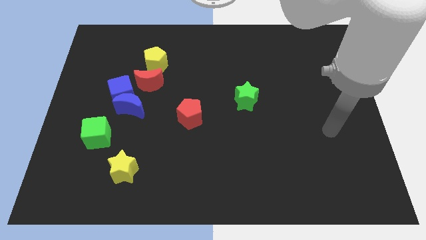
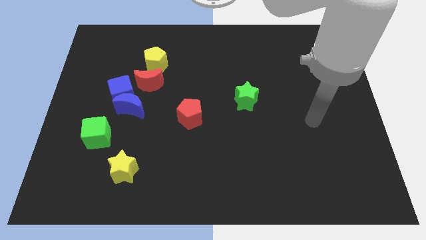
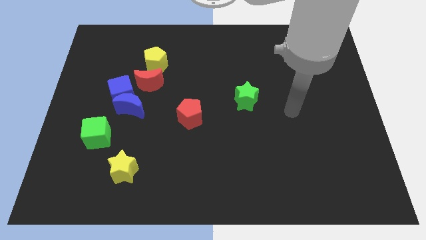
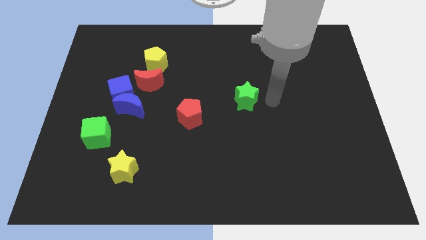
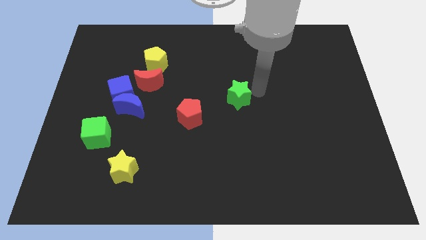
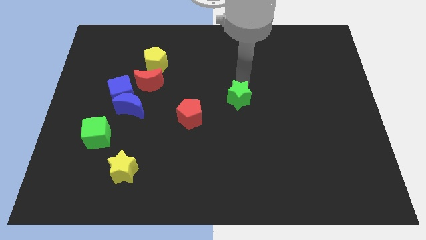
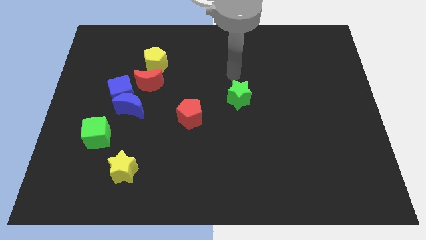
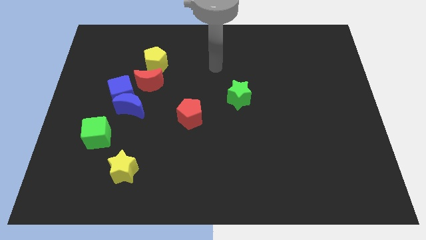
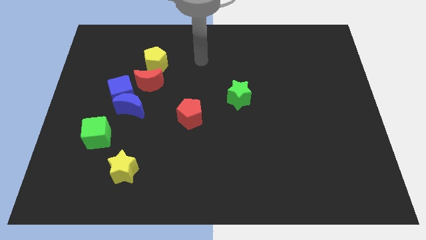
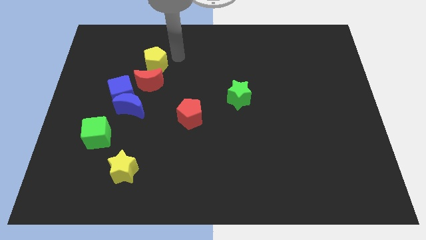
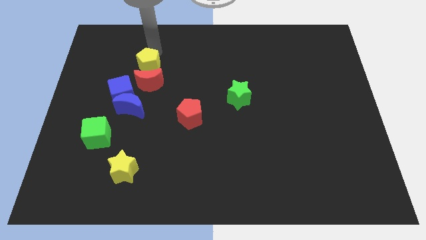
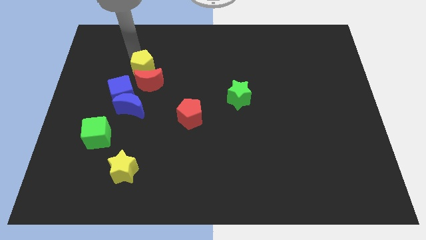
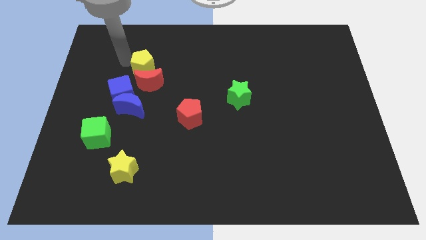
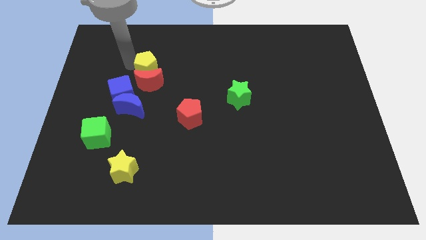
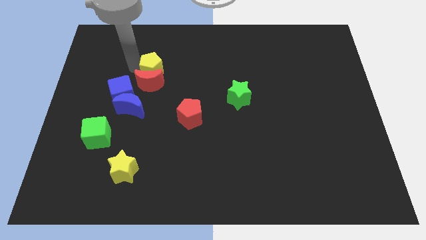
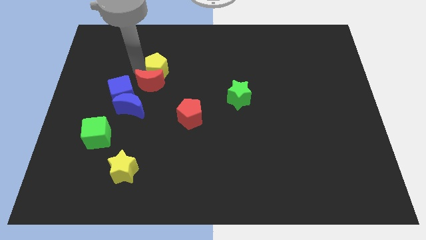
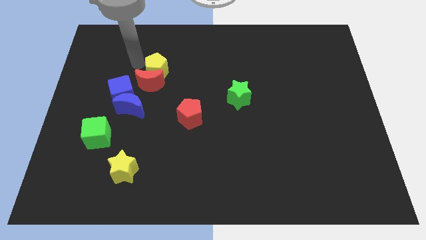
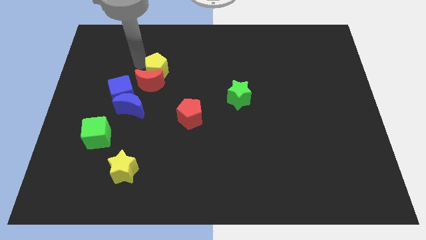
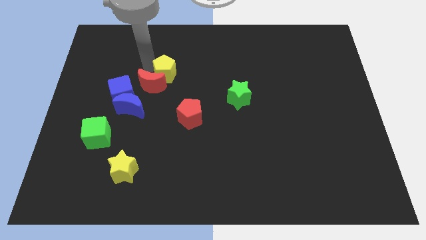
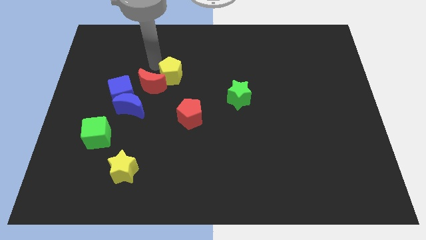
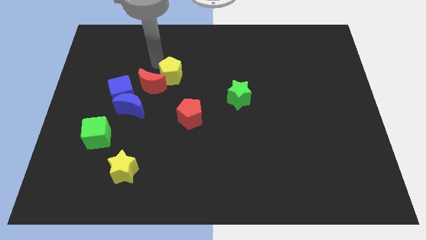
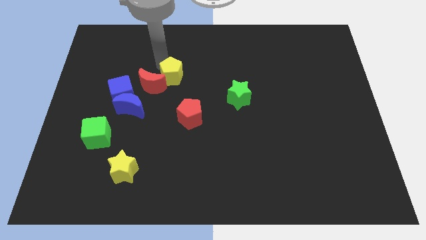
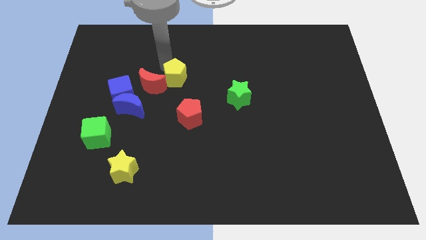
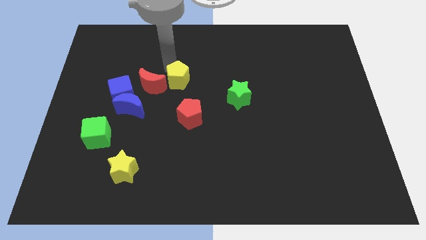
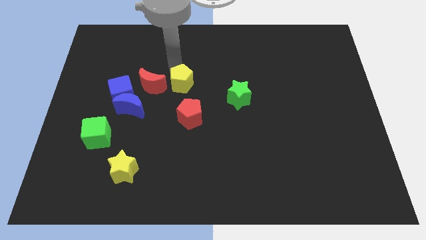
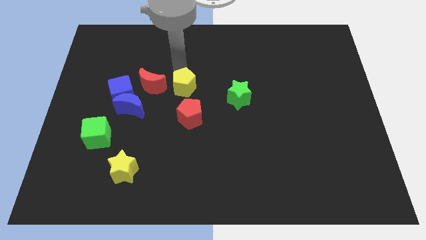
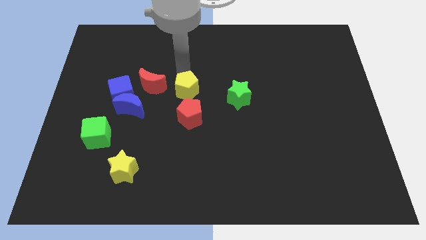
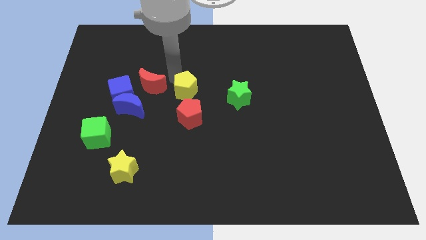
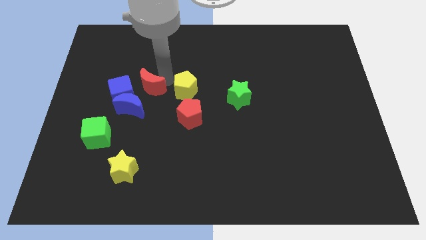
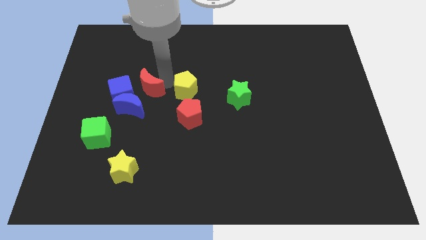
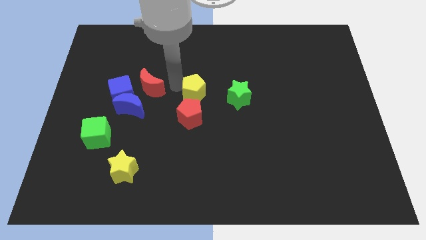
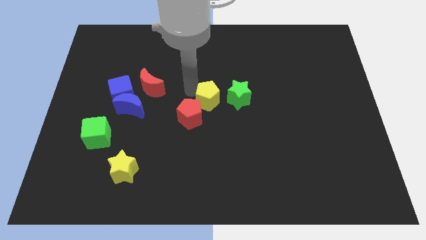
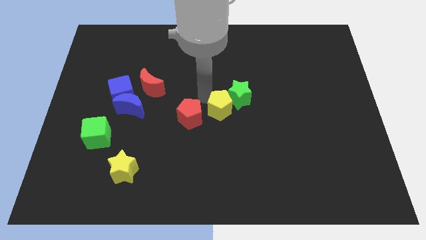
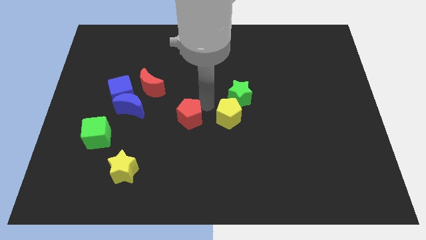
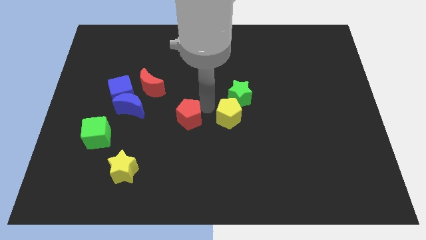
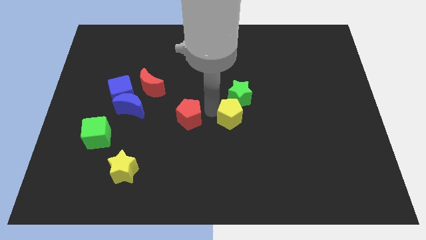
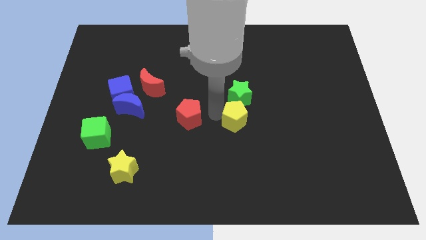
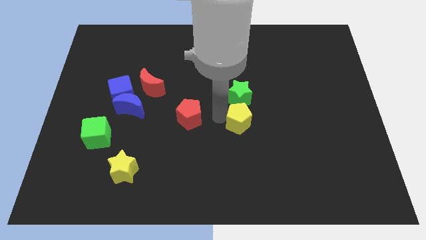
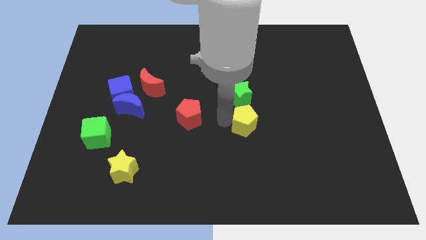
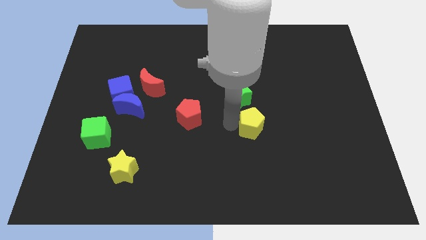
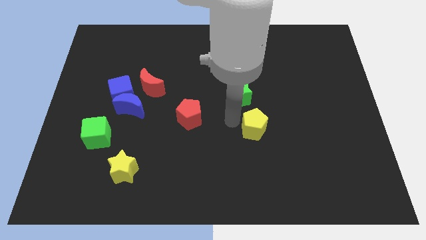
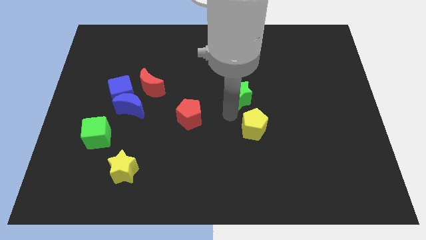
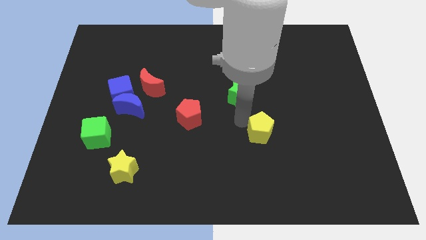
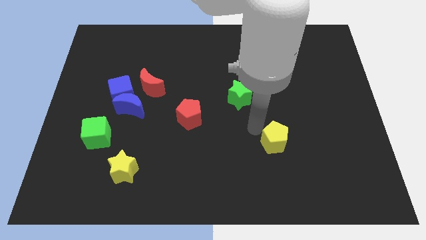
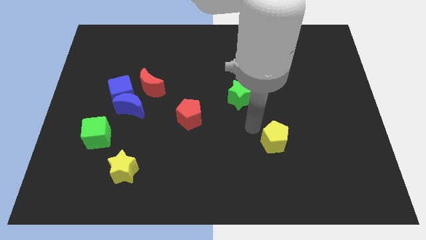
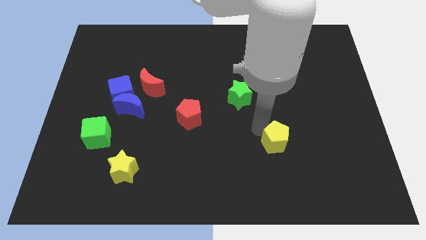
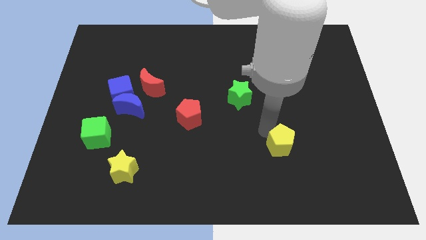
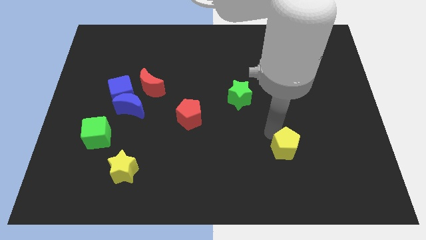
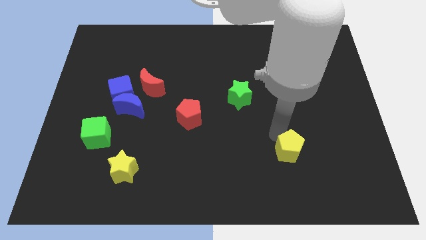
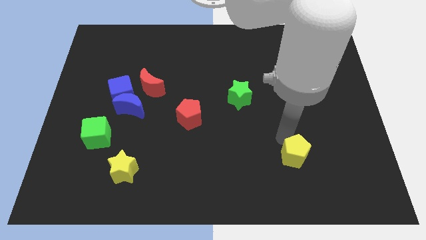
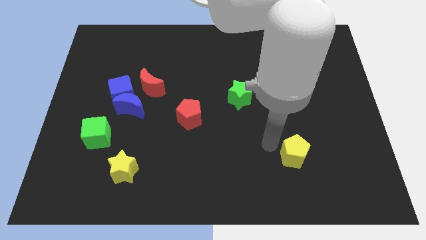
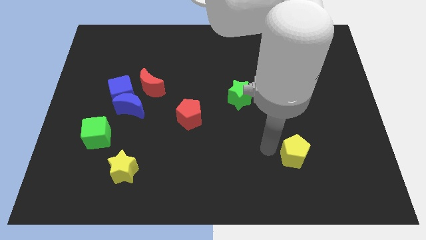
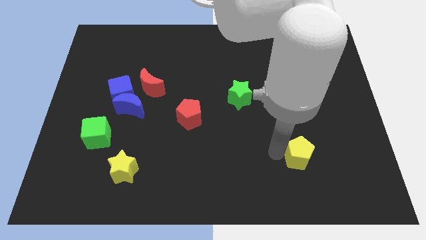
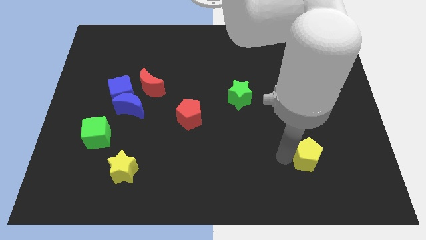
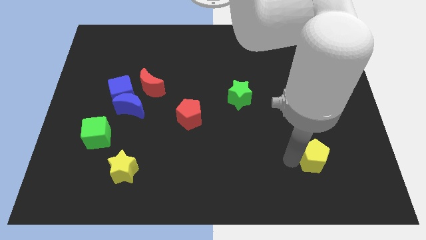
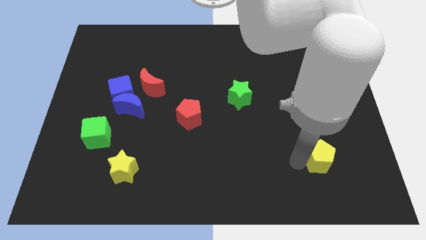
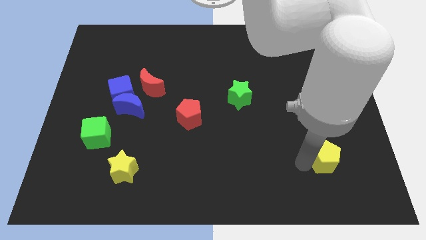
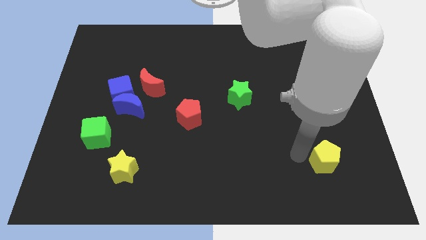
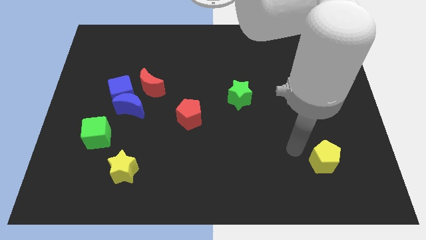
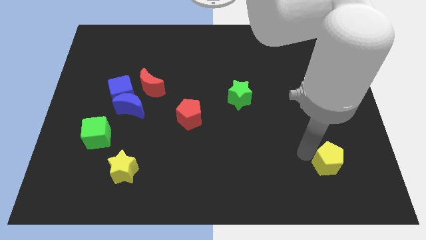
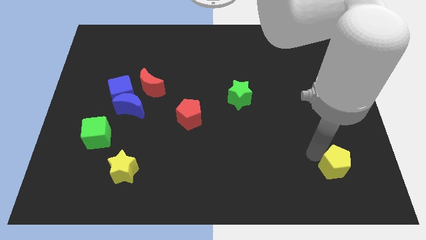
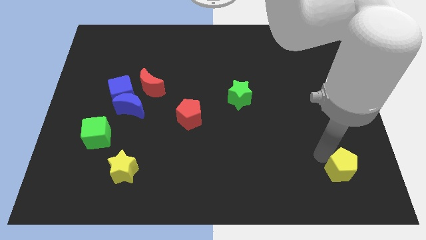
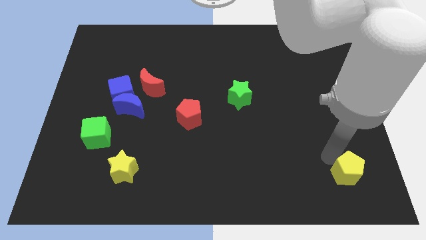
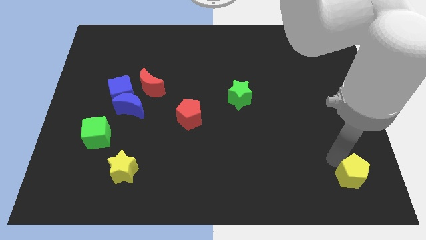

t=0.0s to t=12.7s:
put the yellow pentagon to the bottom right
